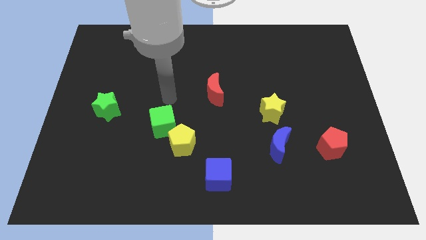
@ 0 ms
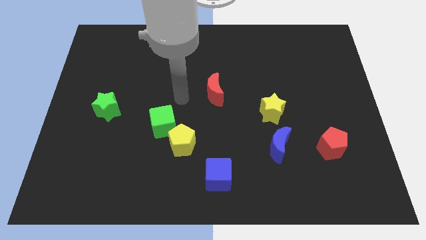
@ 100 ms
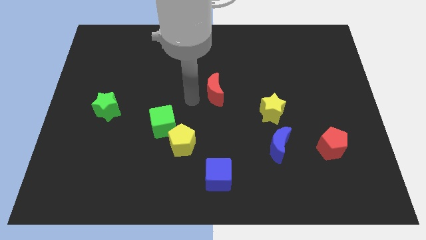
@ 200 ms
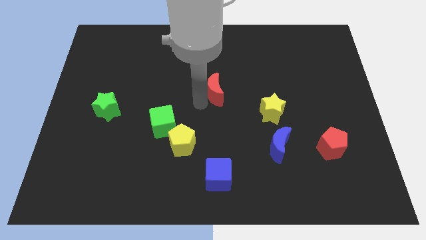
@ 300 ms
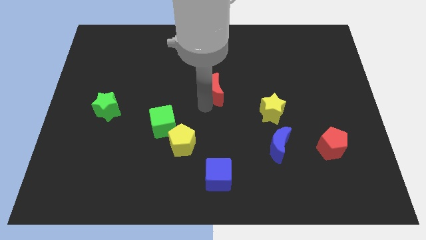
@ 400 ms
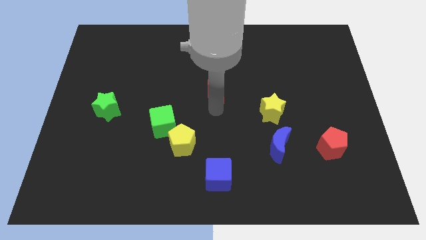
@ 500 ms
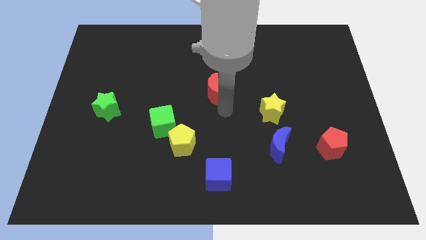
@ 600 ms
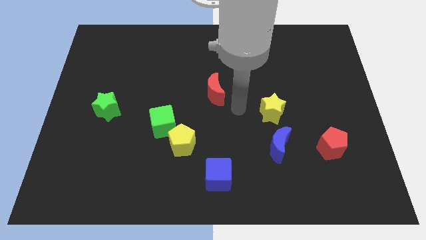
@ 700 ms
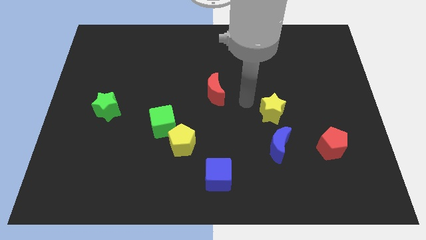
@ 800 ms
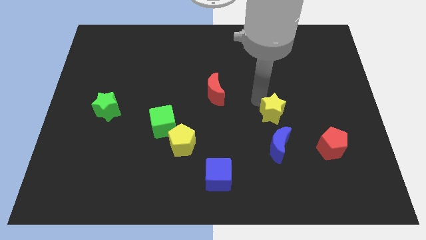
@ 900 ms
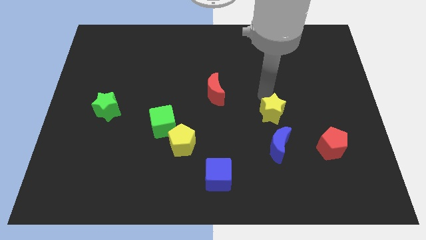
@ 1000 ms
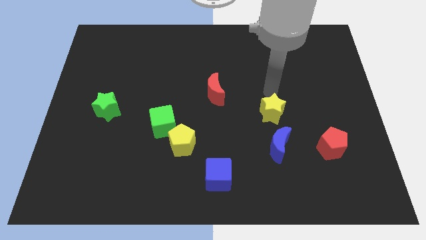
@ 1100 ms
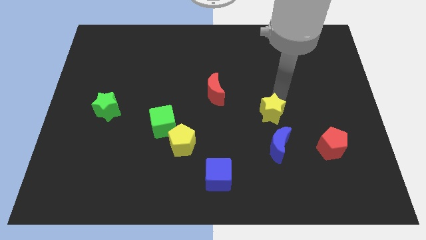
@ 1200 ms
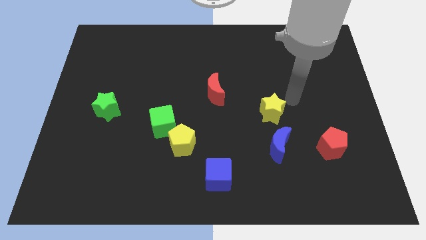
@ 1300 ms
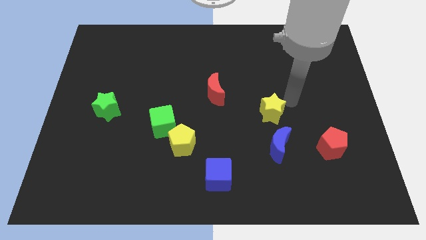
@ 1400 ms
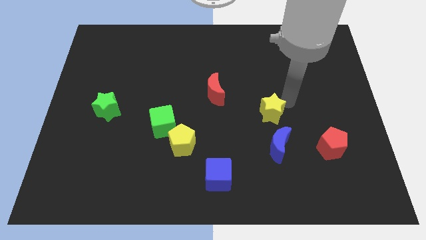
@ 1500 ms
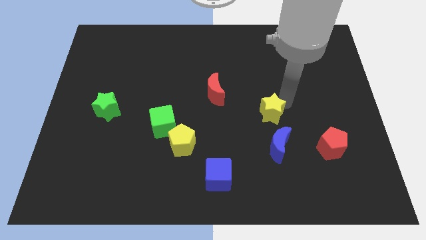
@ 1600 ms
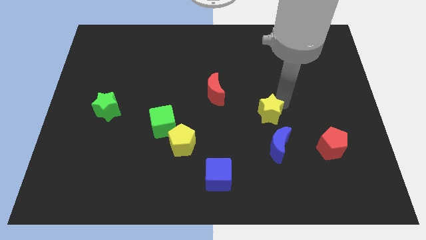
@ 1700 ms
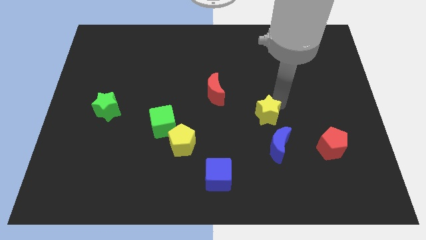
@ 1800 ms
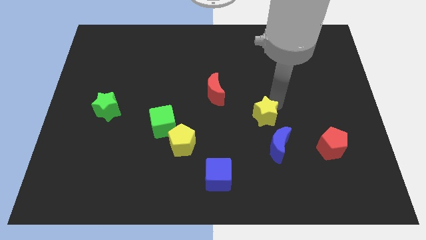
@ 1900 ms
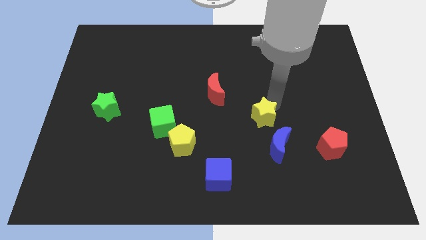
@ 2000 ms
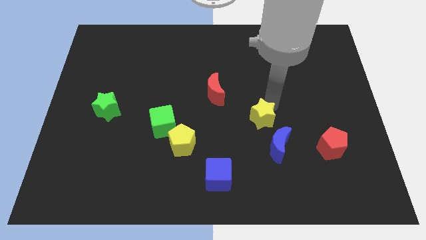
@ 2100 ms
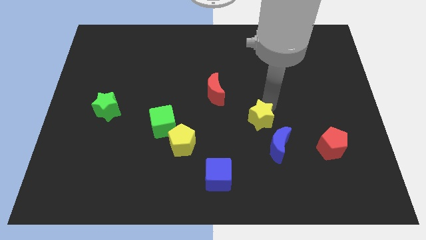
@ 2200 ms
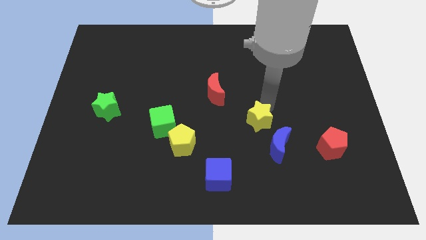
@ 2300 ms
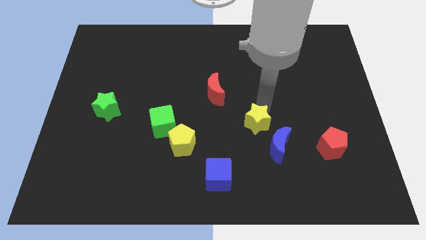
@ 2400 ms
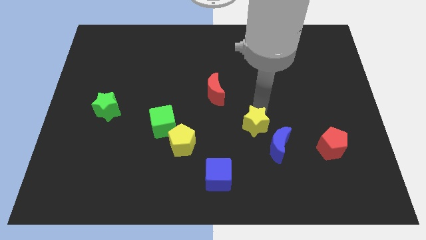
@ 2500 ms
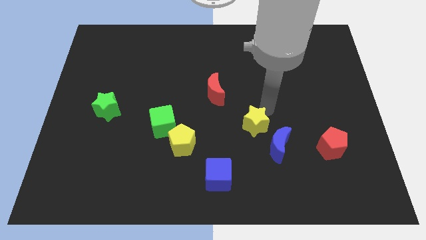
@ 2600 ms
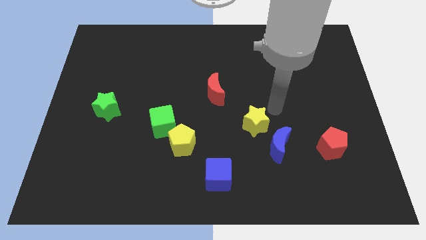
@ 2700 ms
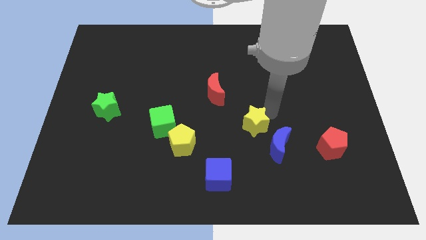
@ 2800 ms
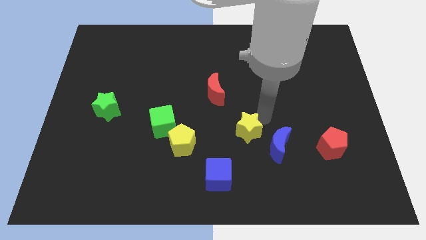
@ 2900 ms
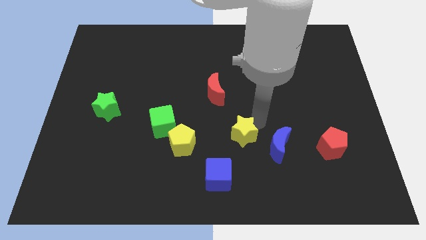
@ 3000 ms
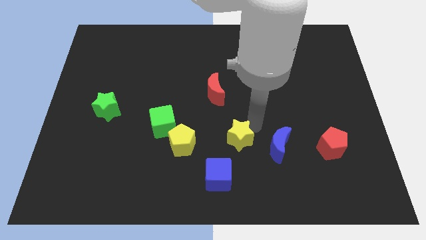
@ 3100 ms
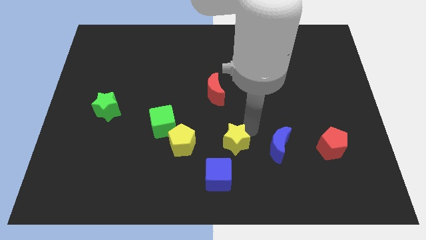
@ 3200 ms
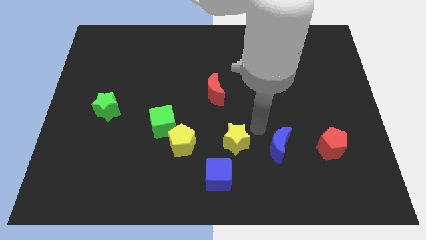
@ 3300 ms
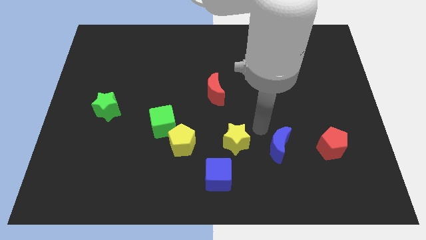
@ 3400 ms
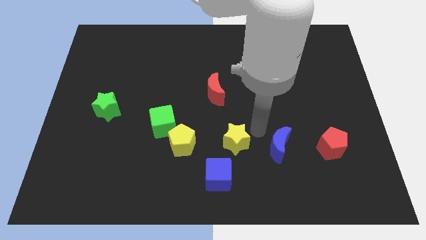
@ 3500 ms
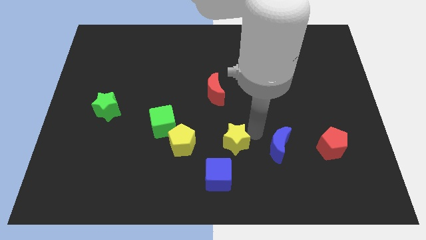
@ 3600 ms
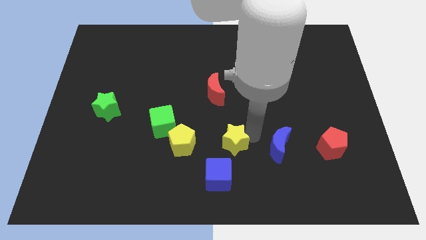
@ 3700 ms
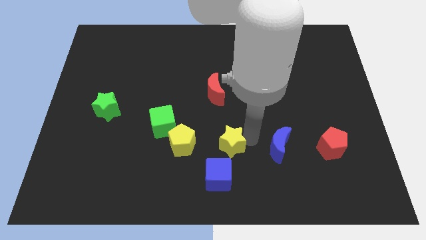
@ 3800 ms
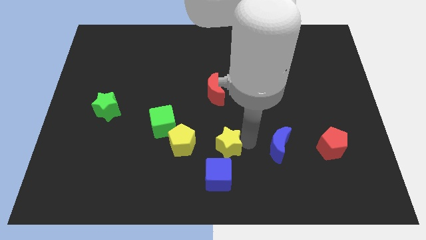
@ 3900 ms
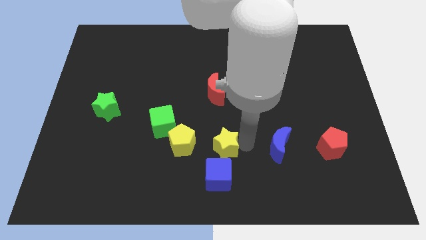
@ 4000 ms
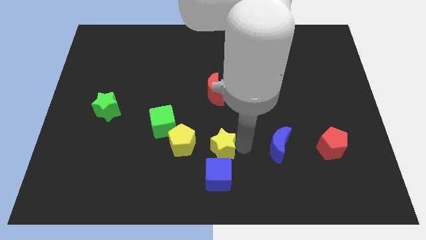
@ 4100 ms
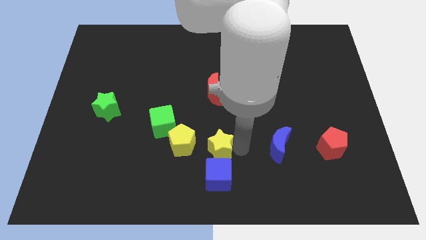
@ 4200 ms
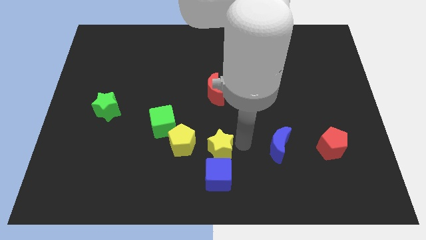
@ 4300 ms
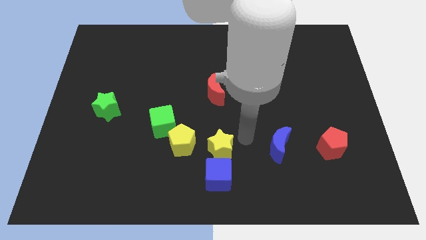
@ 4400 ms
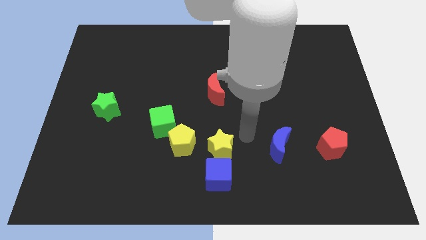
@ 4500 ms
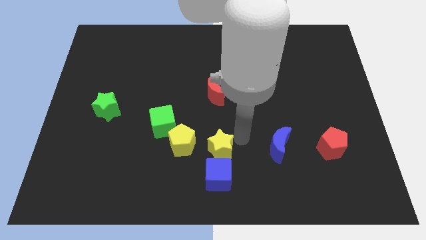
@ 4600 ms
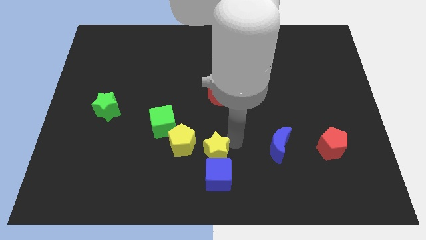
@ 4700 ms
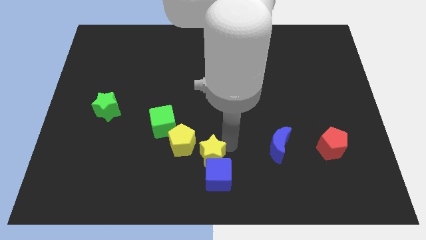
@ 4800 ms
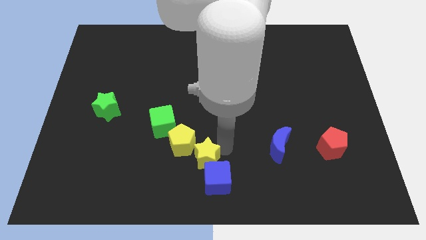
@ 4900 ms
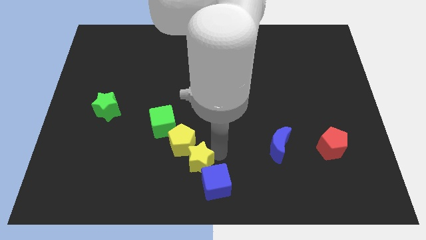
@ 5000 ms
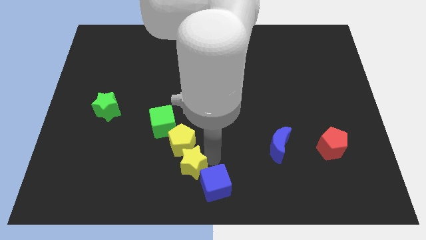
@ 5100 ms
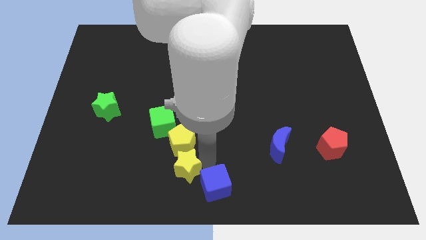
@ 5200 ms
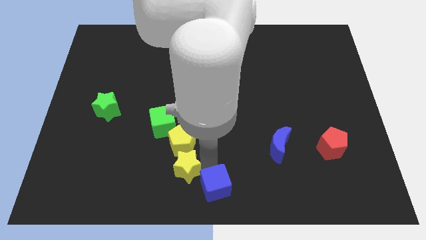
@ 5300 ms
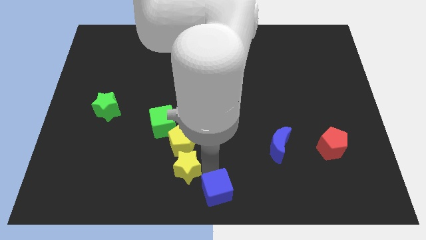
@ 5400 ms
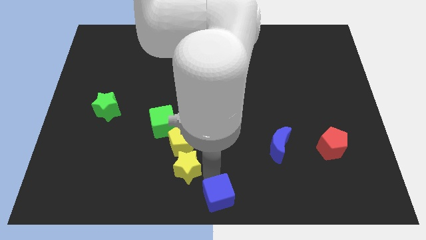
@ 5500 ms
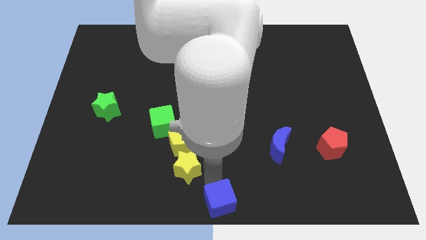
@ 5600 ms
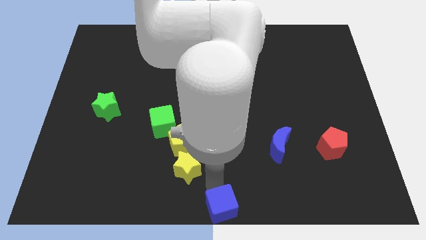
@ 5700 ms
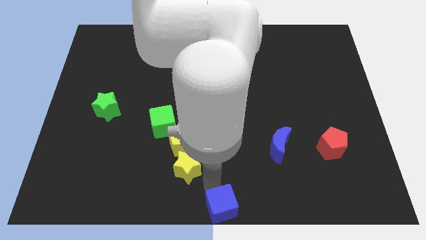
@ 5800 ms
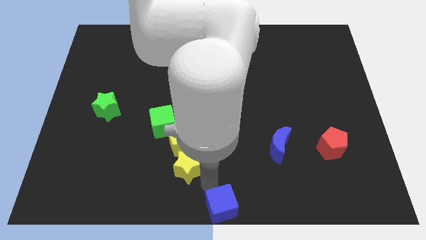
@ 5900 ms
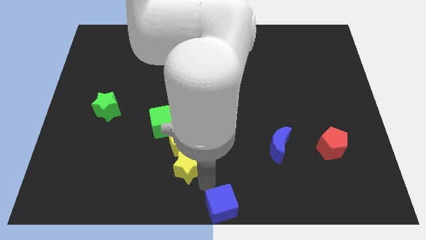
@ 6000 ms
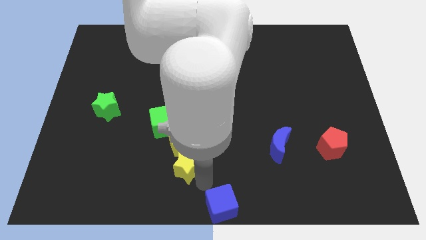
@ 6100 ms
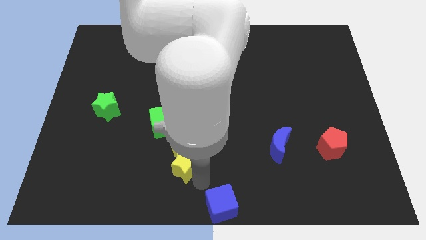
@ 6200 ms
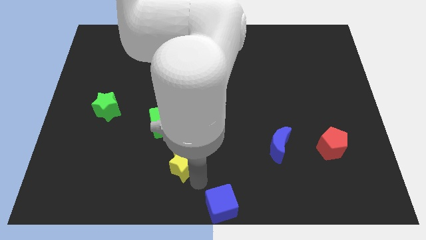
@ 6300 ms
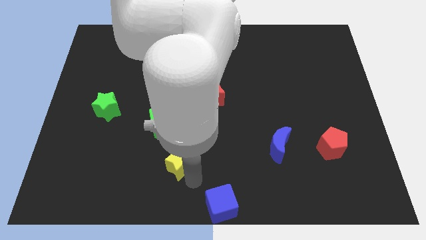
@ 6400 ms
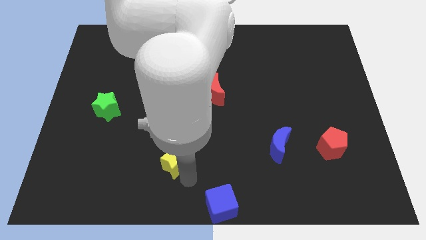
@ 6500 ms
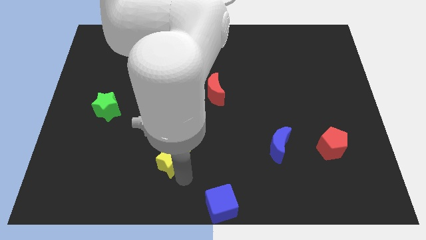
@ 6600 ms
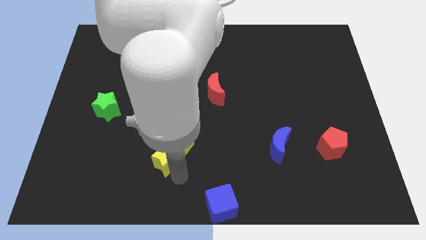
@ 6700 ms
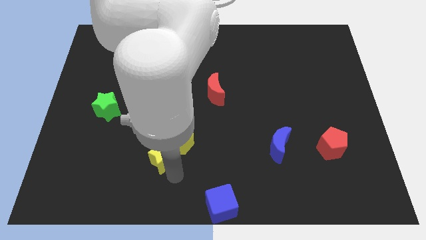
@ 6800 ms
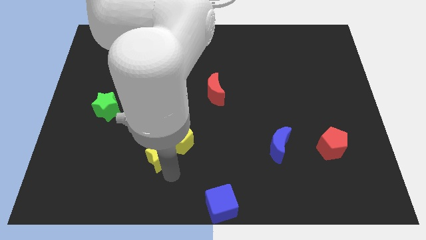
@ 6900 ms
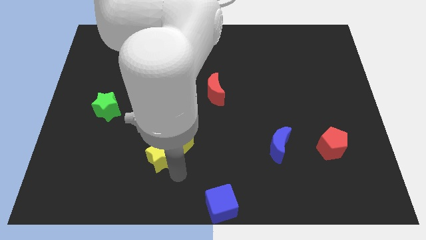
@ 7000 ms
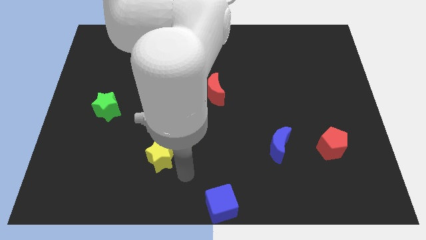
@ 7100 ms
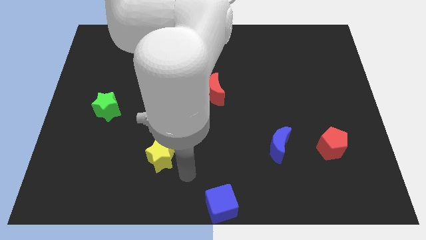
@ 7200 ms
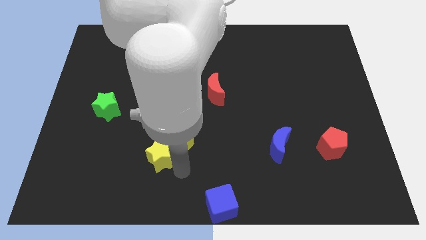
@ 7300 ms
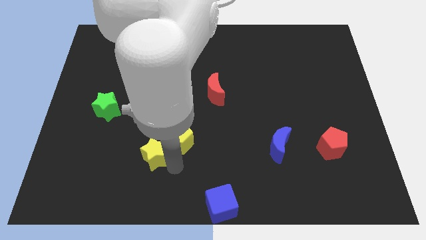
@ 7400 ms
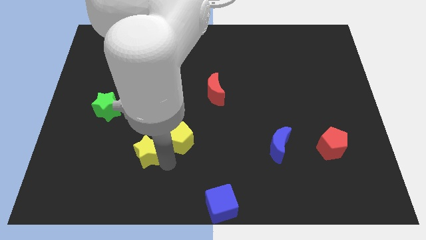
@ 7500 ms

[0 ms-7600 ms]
slide the yellow star to the bottom left of the green cube
